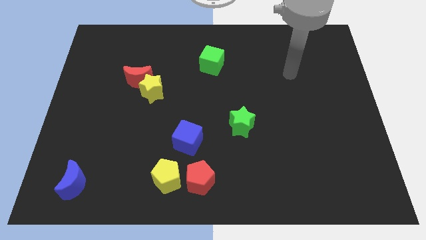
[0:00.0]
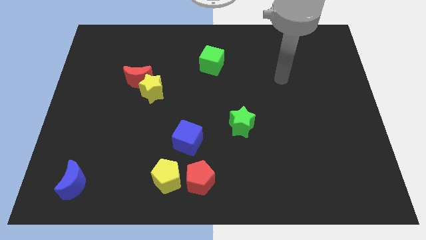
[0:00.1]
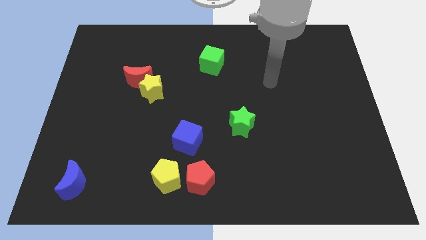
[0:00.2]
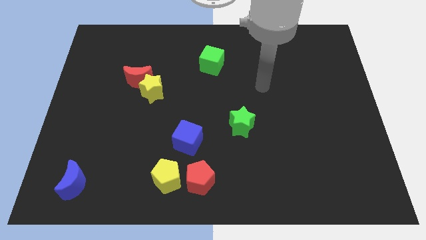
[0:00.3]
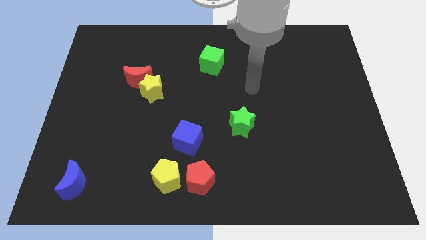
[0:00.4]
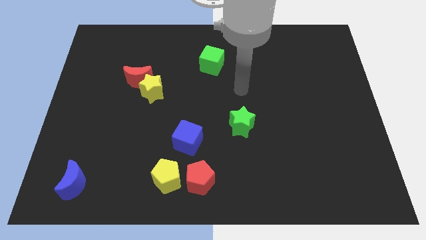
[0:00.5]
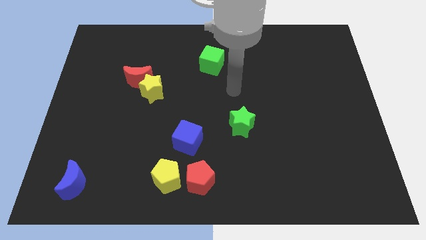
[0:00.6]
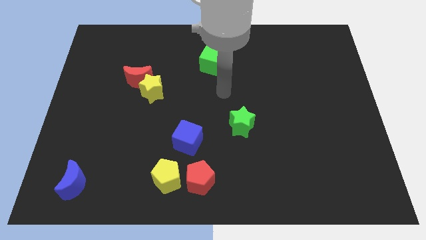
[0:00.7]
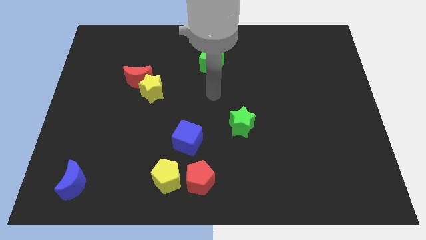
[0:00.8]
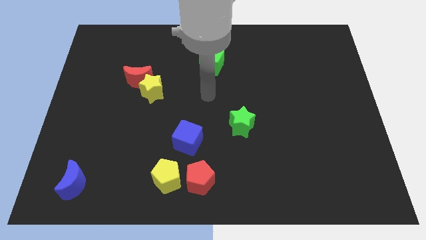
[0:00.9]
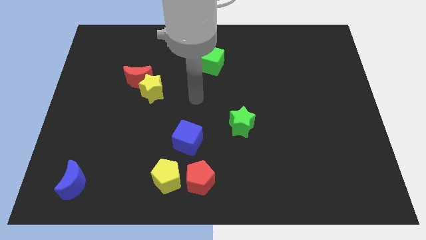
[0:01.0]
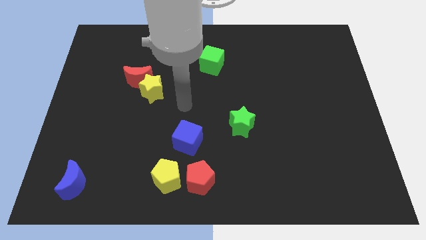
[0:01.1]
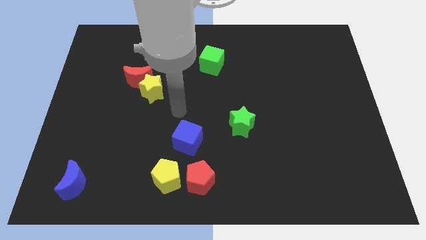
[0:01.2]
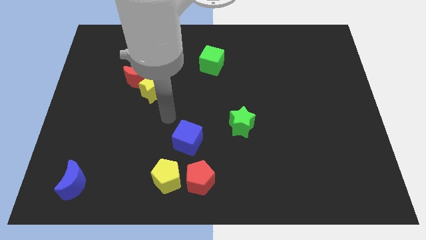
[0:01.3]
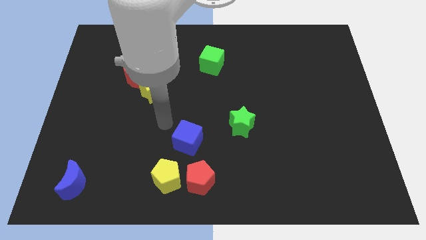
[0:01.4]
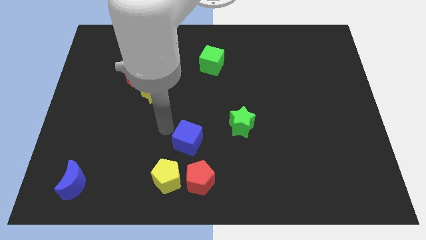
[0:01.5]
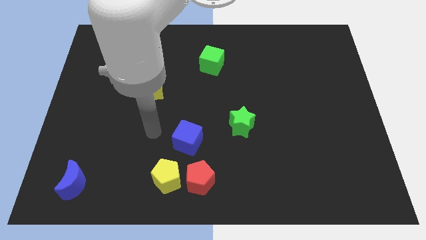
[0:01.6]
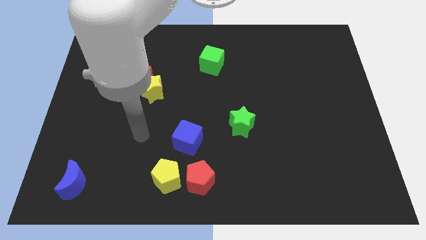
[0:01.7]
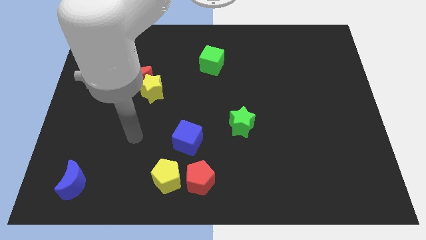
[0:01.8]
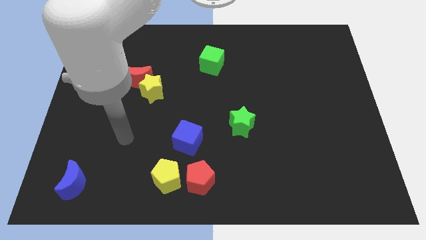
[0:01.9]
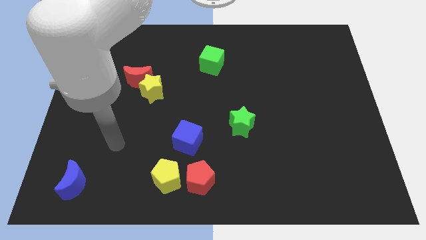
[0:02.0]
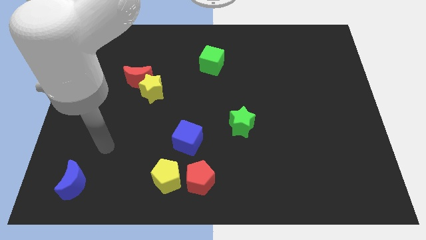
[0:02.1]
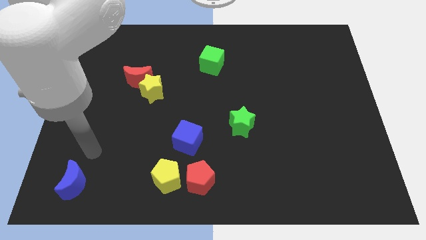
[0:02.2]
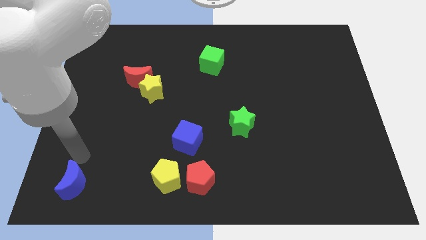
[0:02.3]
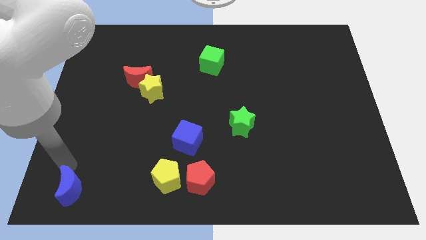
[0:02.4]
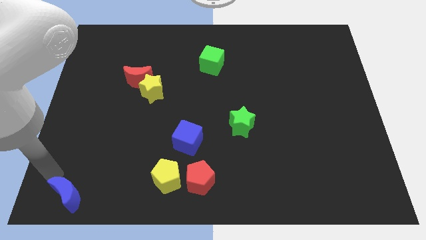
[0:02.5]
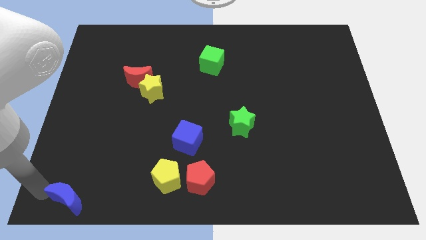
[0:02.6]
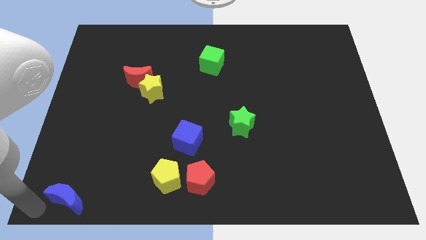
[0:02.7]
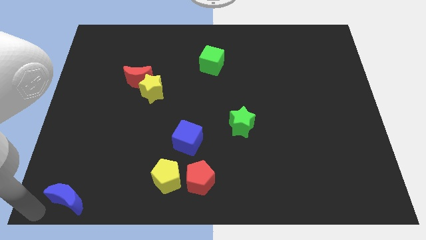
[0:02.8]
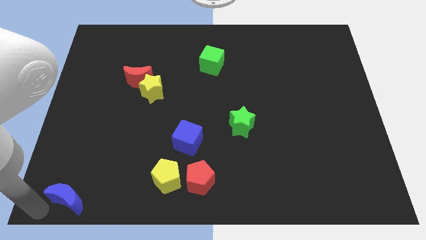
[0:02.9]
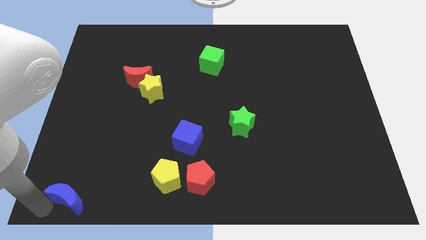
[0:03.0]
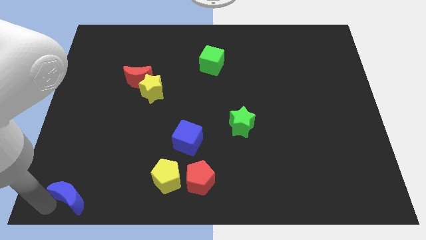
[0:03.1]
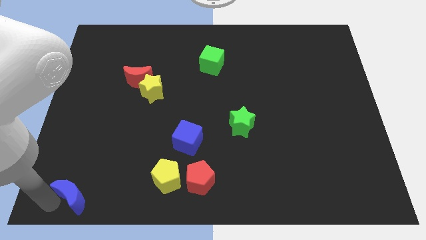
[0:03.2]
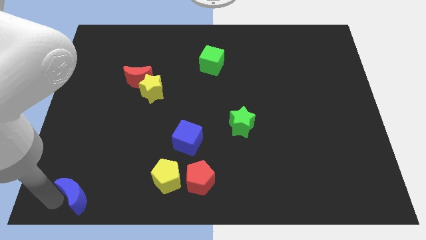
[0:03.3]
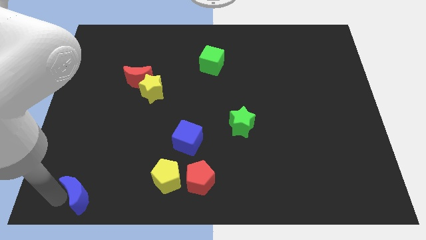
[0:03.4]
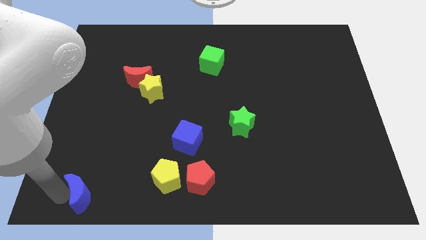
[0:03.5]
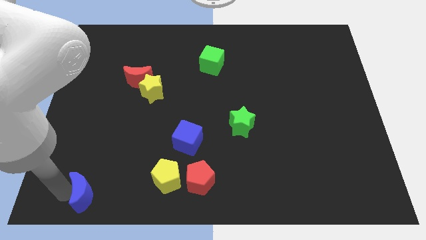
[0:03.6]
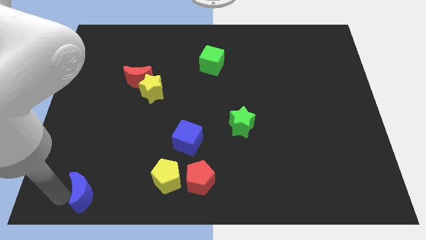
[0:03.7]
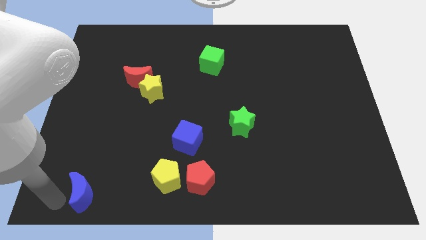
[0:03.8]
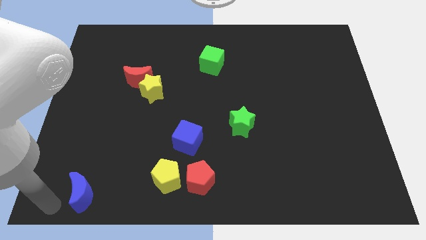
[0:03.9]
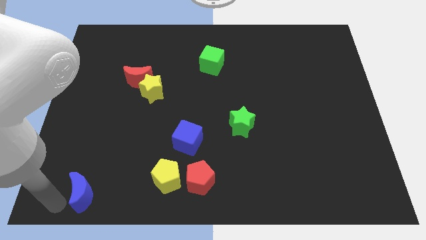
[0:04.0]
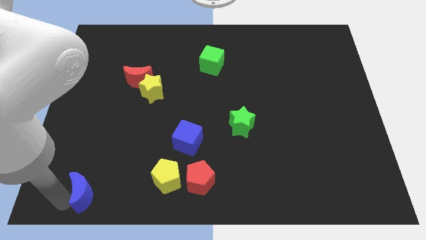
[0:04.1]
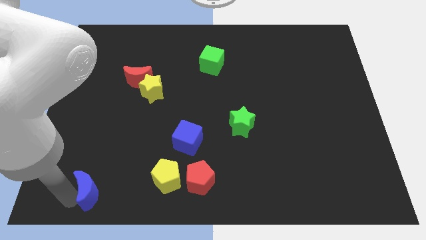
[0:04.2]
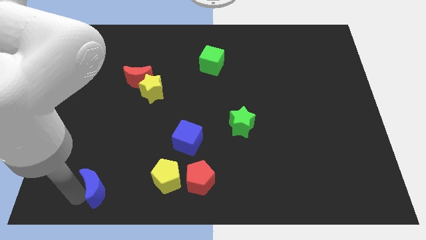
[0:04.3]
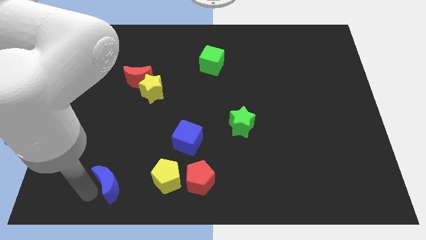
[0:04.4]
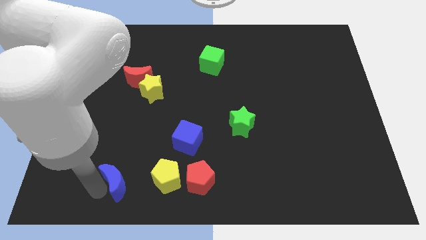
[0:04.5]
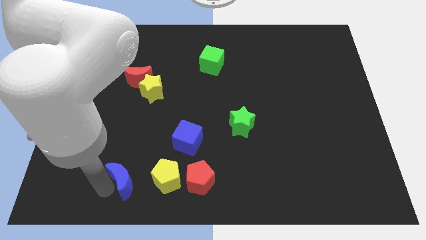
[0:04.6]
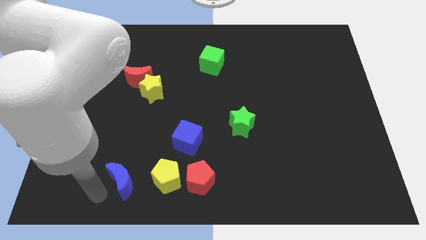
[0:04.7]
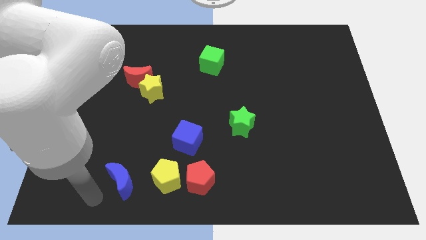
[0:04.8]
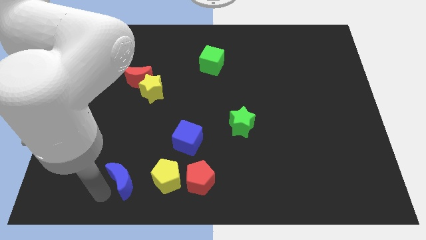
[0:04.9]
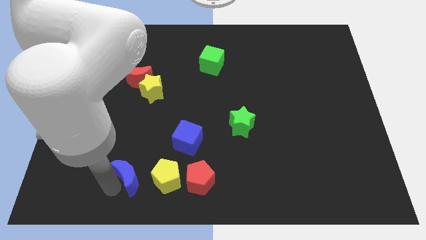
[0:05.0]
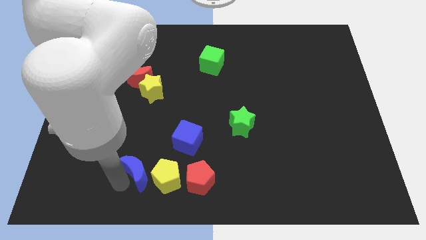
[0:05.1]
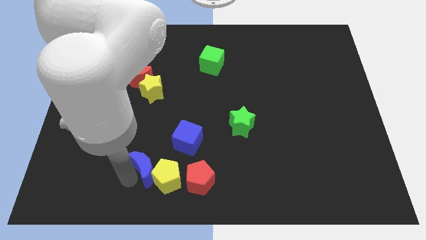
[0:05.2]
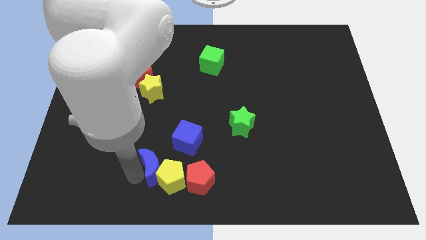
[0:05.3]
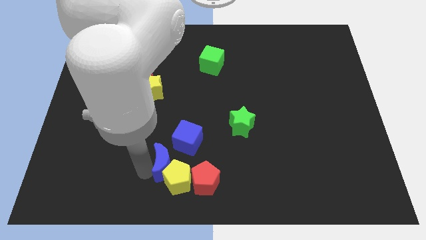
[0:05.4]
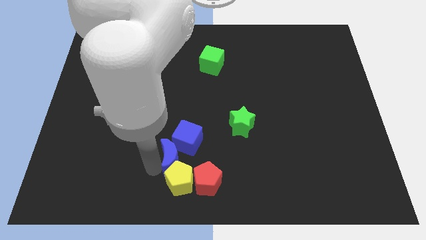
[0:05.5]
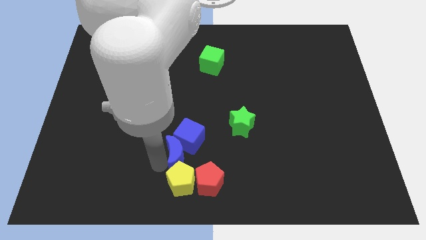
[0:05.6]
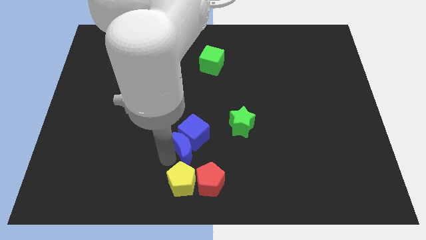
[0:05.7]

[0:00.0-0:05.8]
put the blue moon to the bottom right of the blue cube

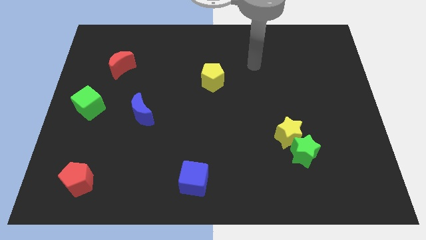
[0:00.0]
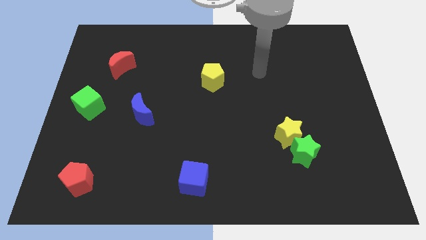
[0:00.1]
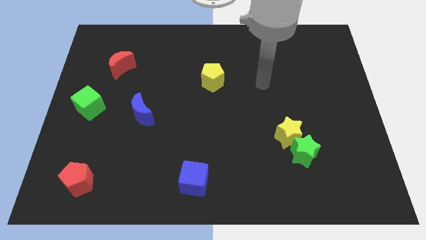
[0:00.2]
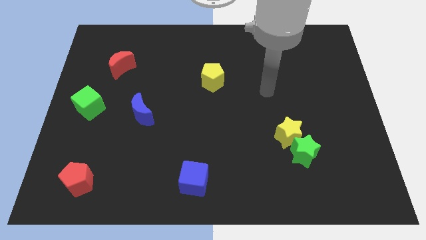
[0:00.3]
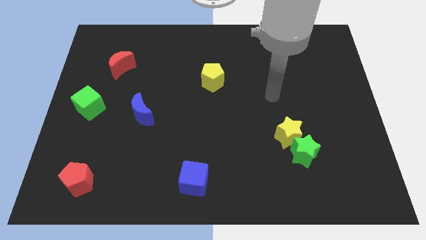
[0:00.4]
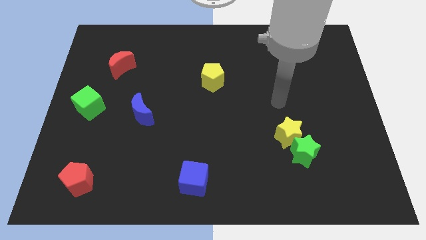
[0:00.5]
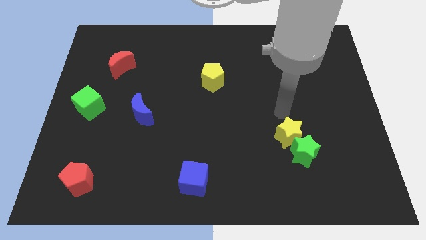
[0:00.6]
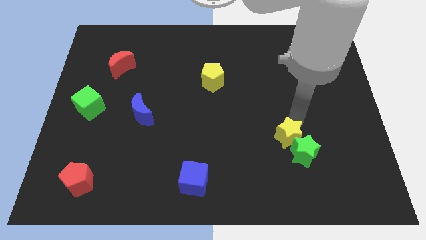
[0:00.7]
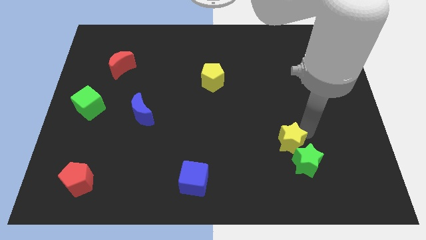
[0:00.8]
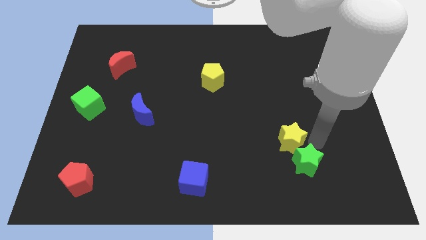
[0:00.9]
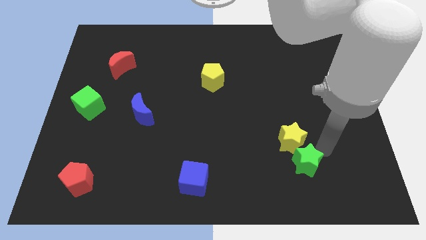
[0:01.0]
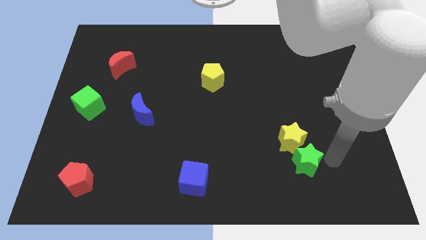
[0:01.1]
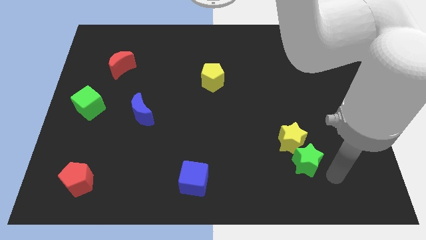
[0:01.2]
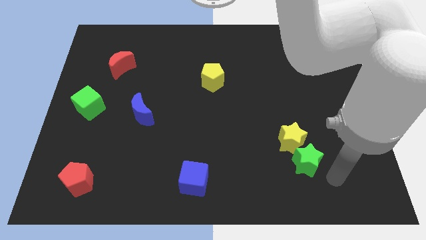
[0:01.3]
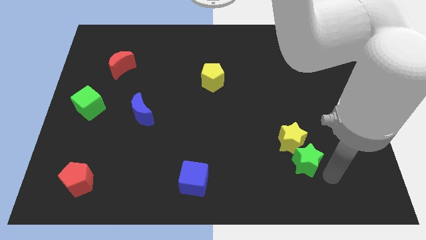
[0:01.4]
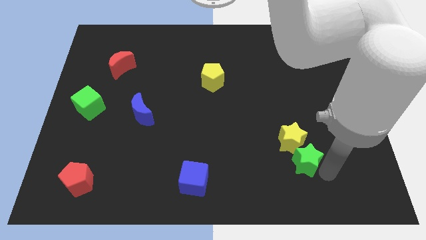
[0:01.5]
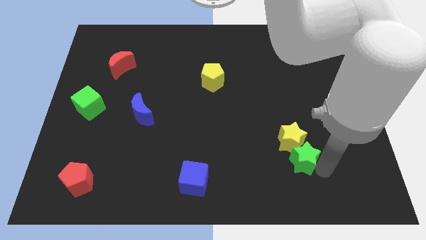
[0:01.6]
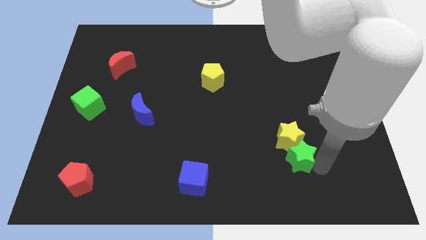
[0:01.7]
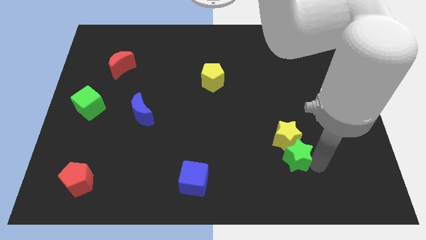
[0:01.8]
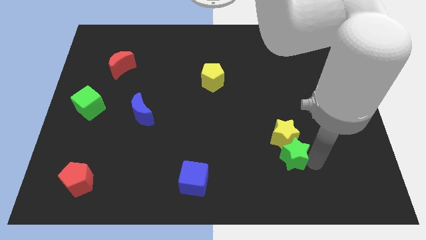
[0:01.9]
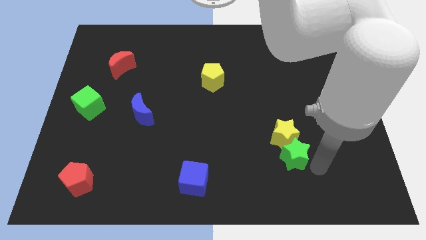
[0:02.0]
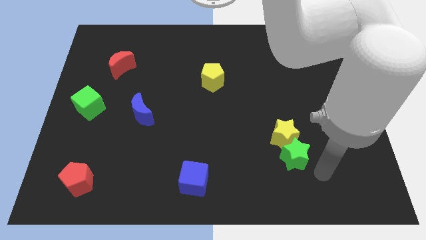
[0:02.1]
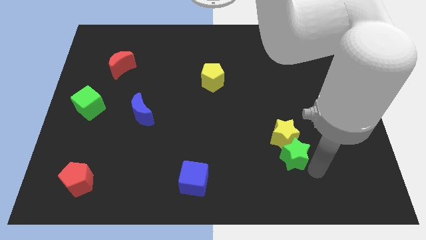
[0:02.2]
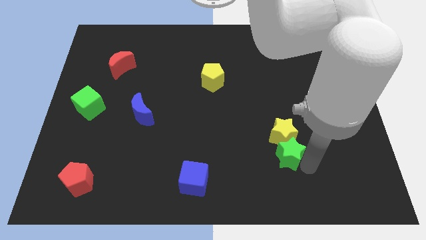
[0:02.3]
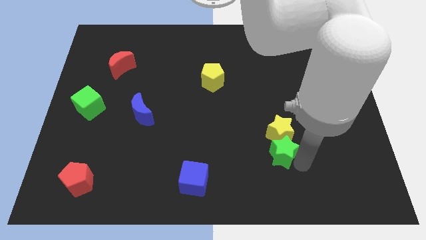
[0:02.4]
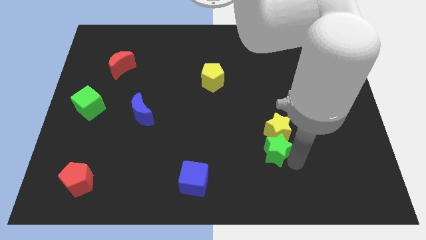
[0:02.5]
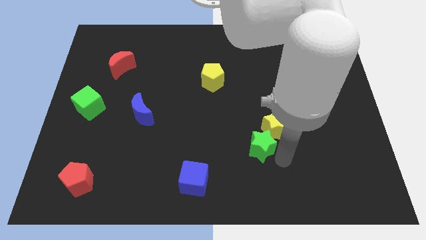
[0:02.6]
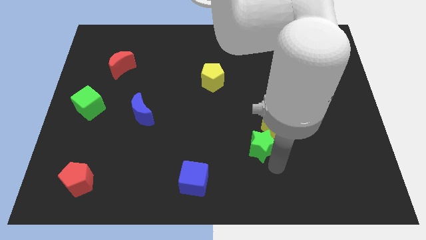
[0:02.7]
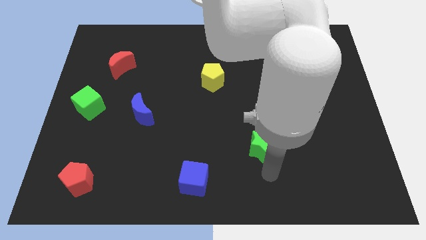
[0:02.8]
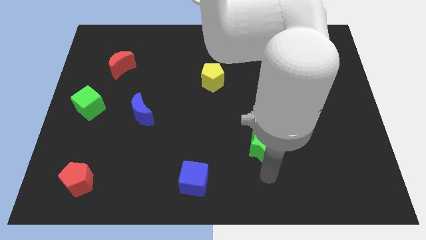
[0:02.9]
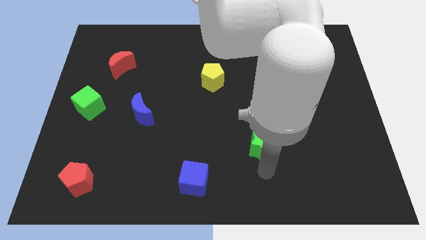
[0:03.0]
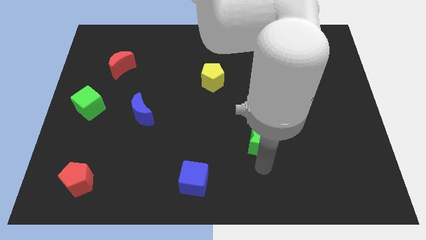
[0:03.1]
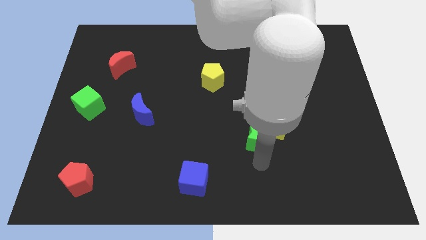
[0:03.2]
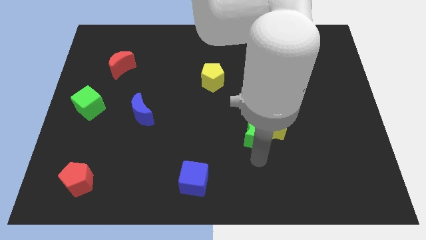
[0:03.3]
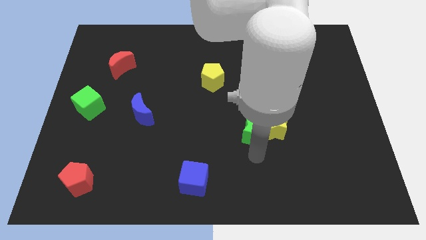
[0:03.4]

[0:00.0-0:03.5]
push the green star diagonally up and to the left of the yellow star
